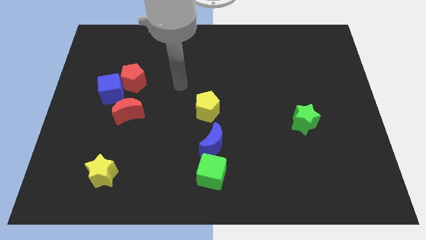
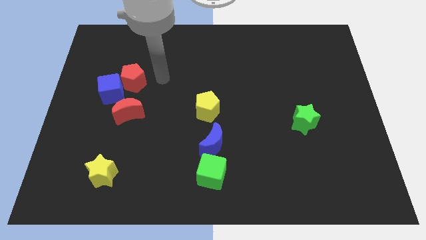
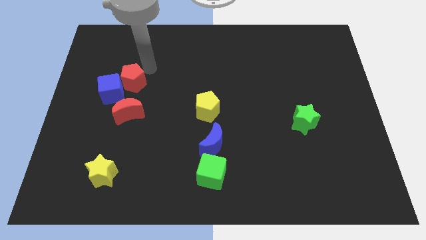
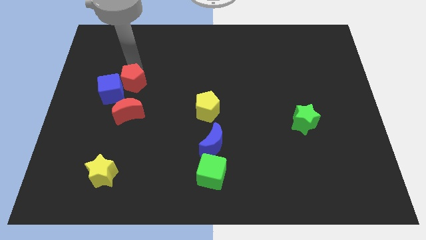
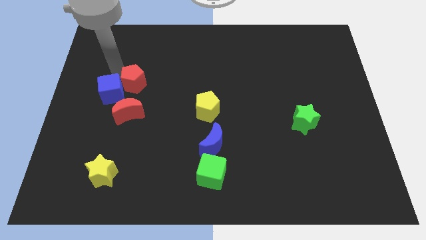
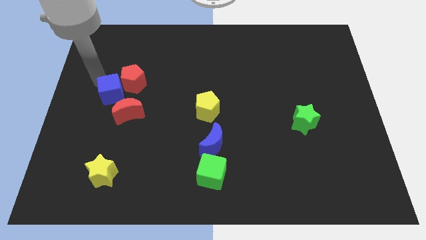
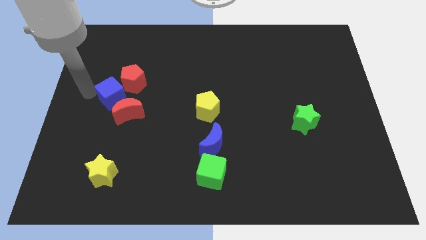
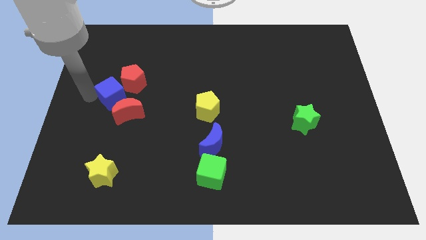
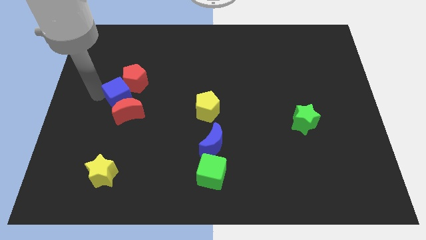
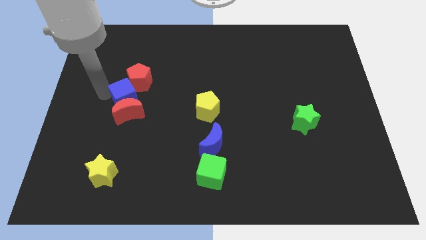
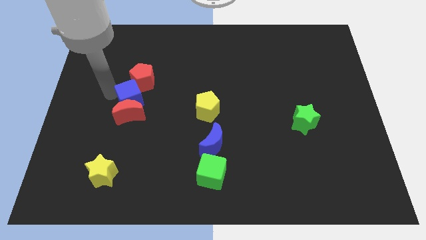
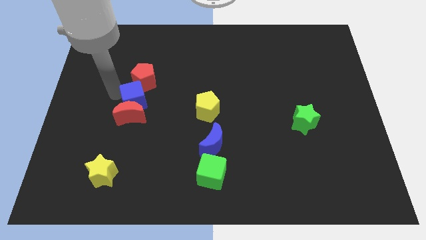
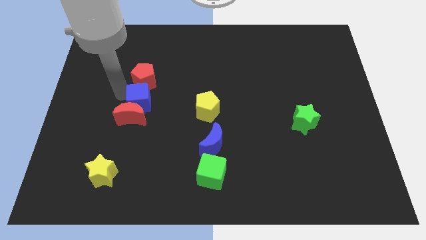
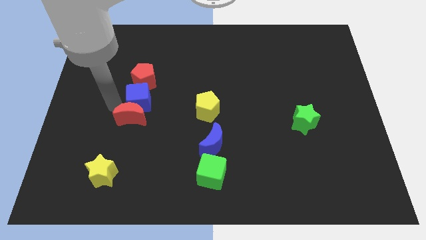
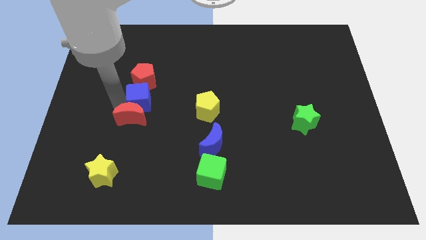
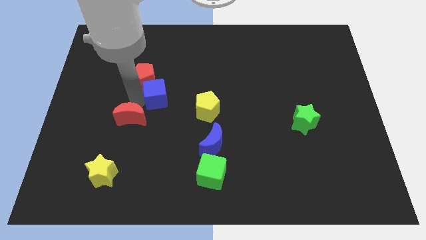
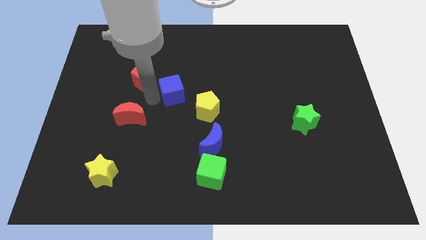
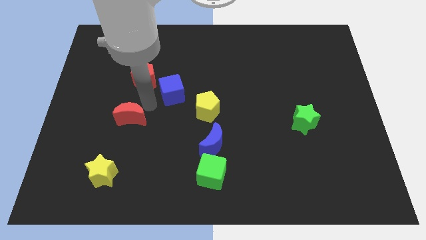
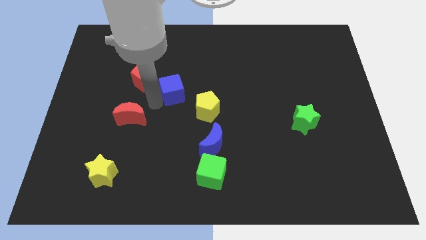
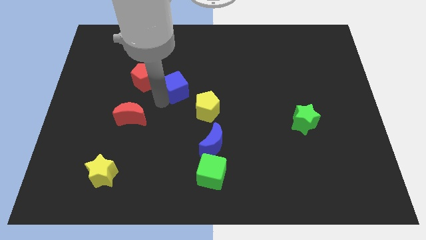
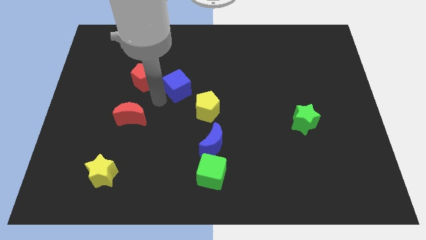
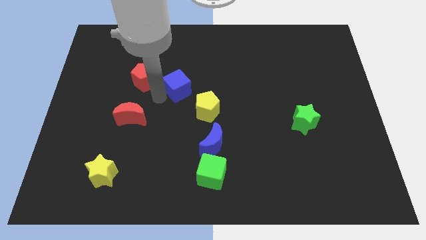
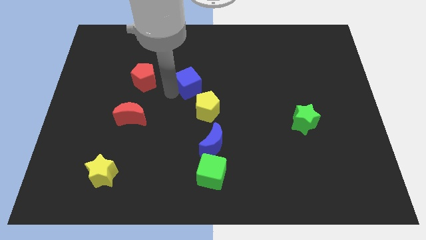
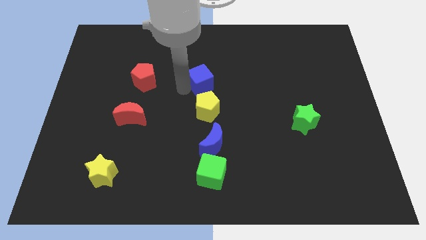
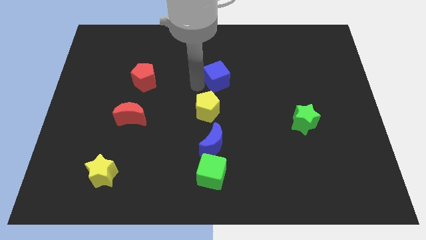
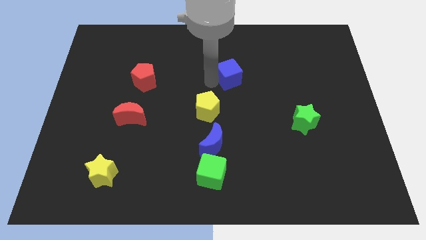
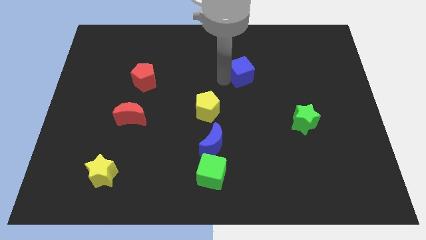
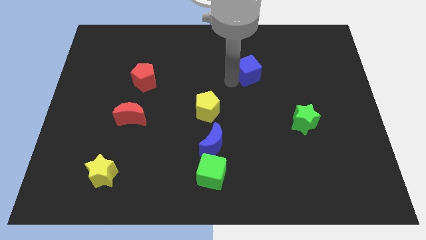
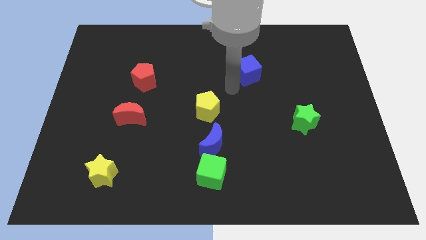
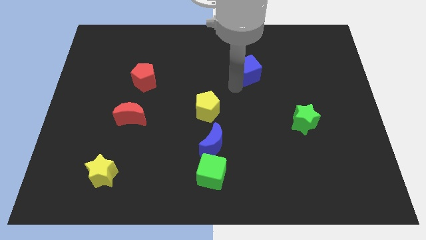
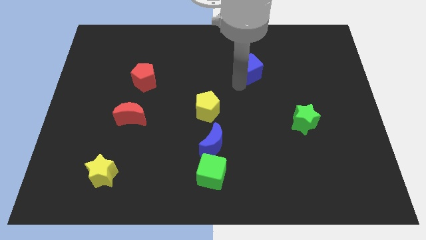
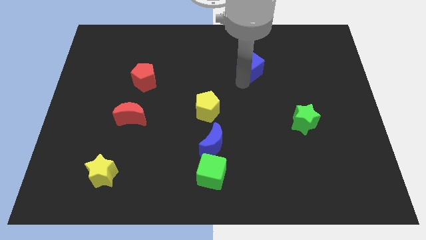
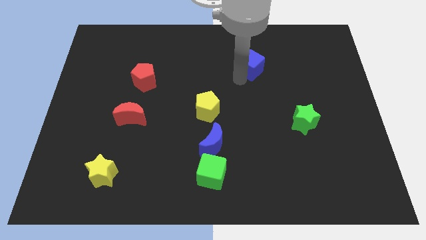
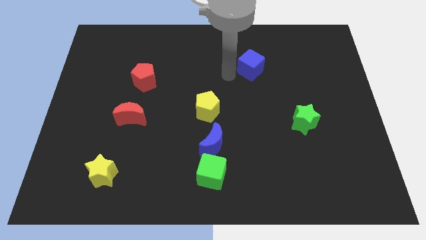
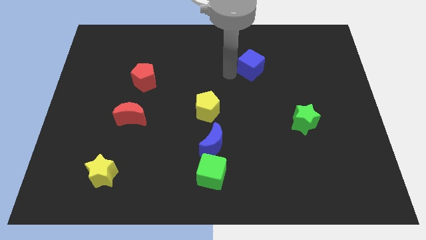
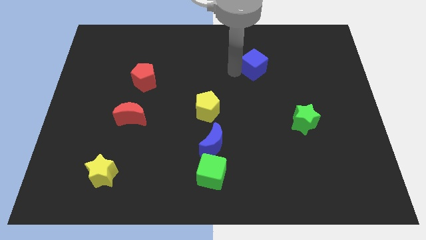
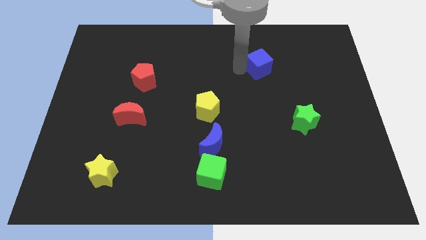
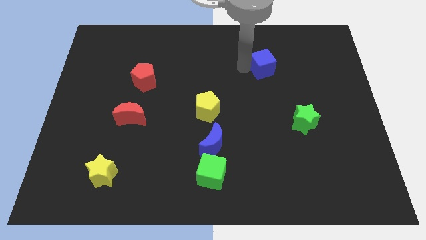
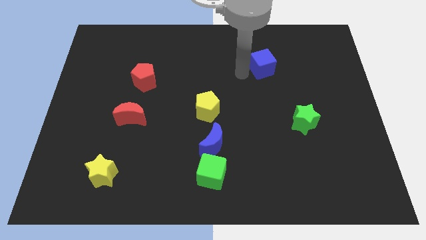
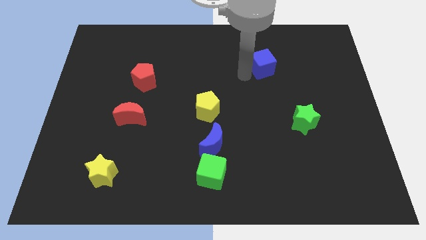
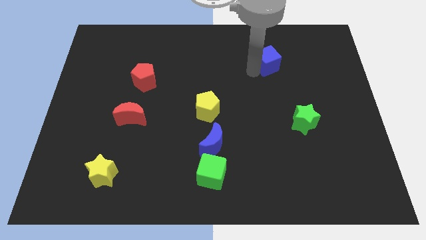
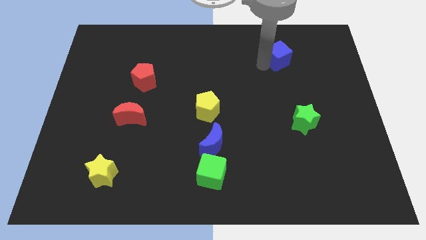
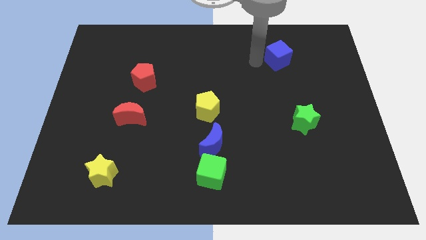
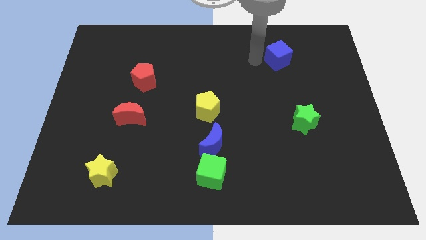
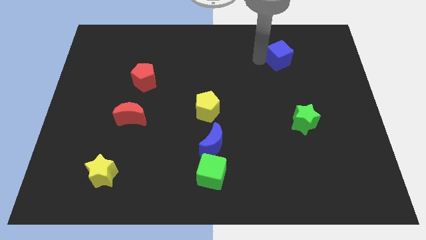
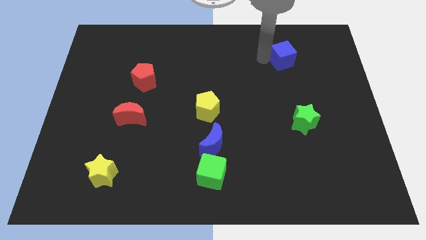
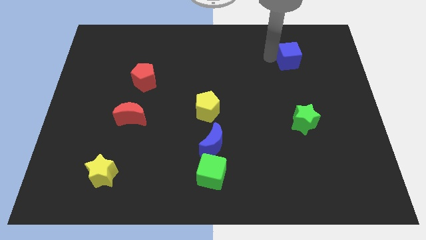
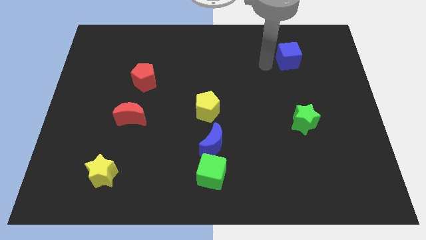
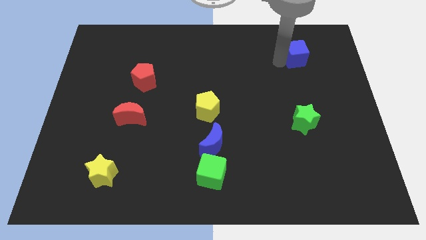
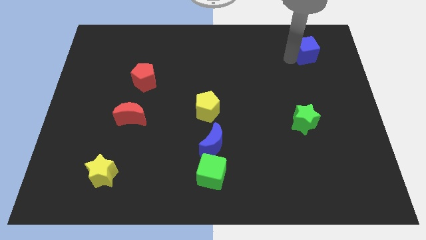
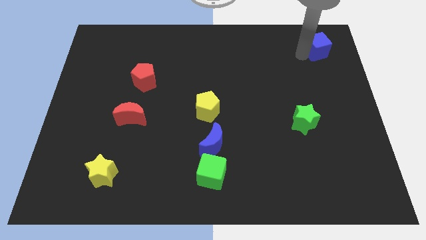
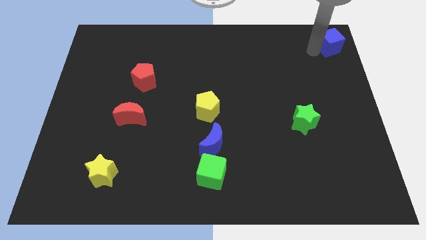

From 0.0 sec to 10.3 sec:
push the blue cube to the top right corner

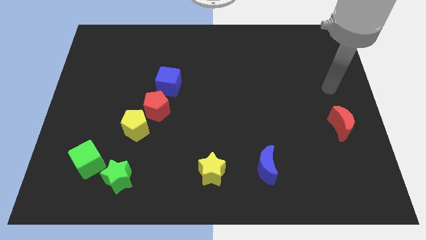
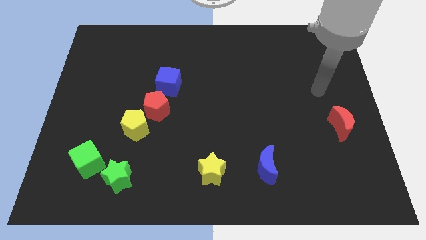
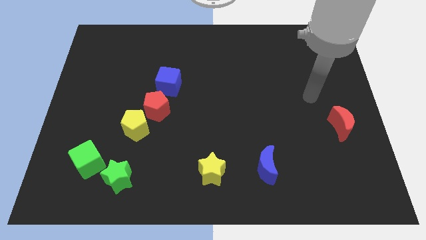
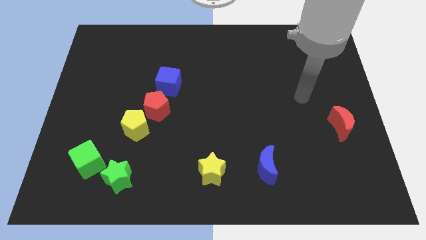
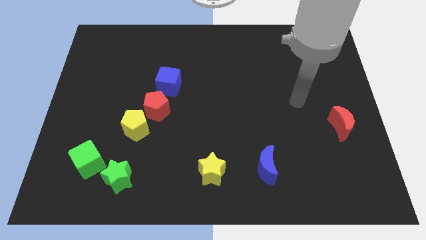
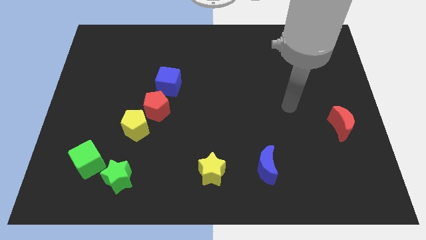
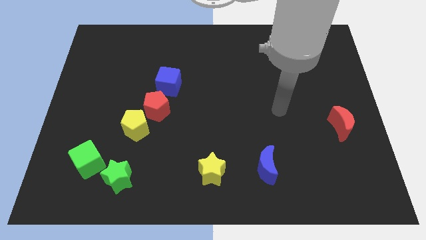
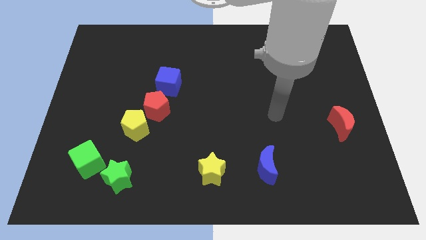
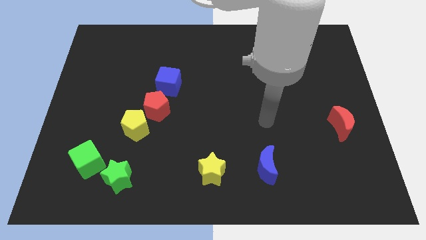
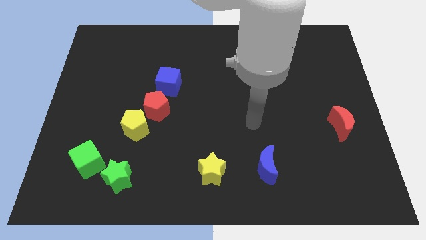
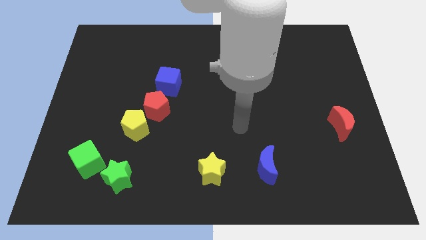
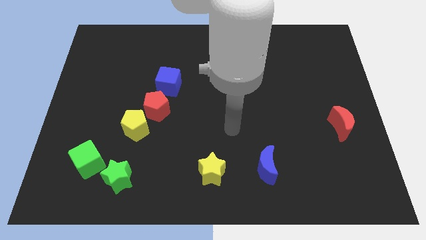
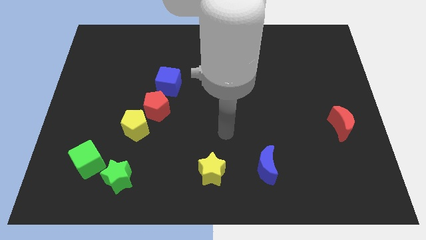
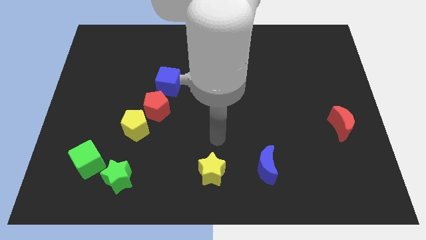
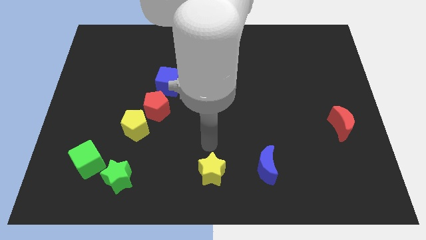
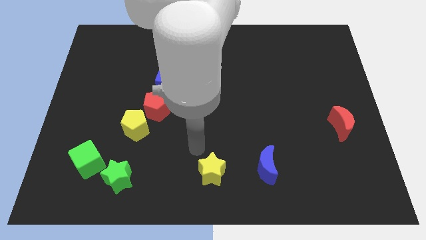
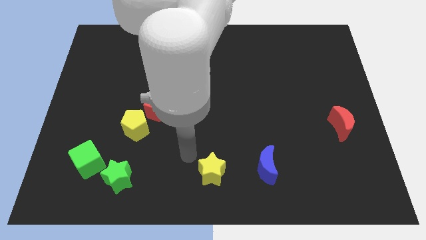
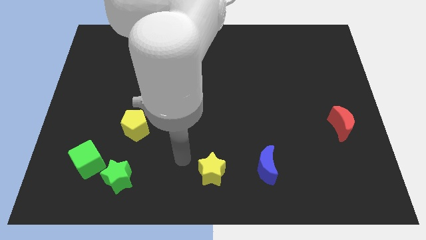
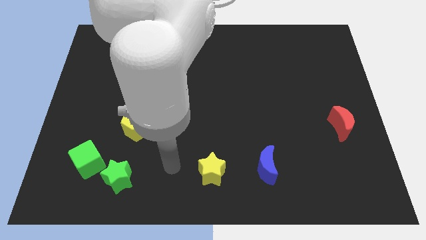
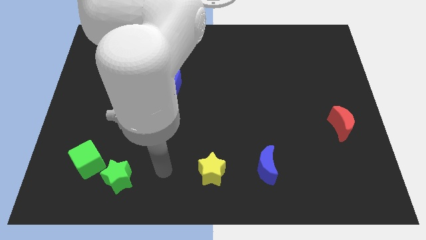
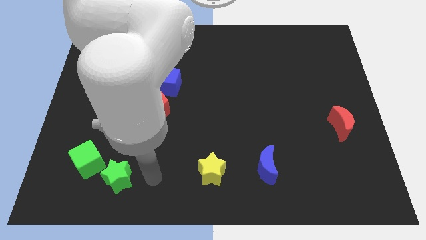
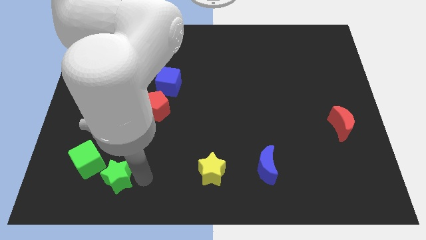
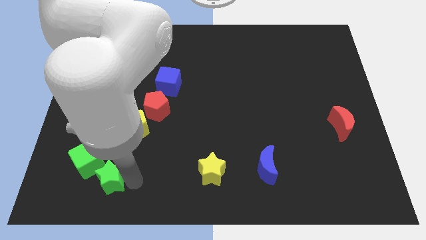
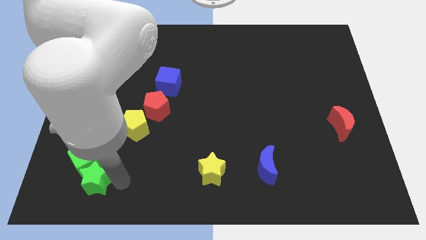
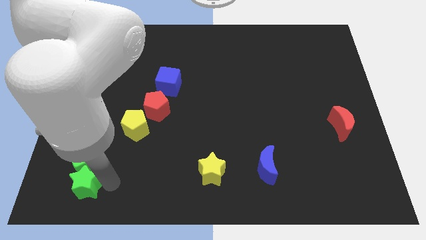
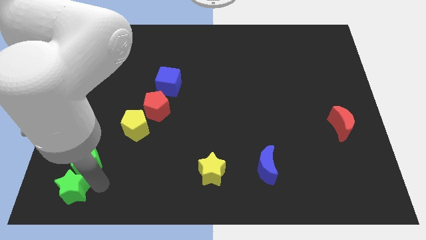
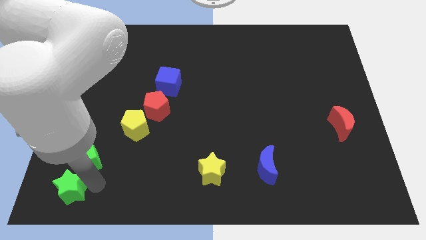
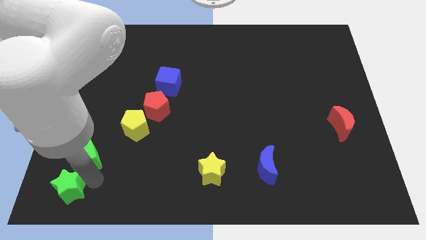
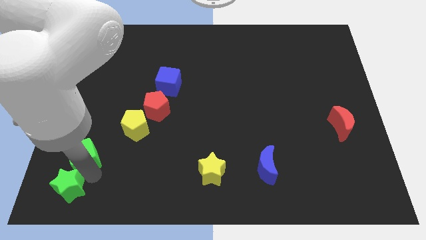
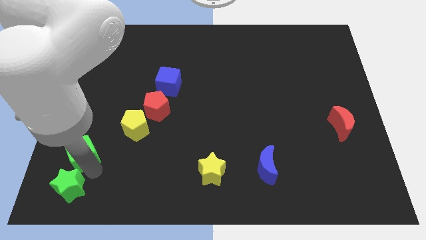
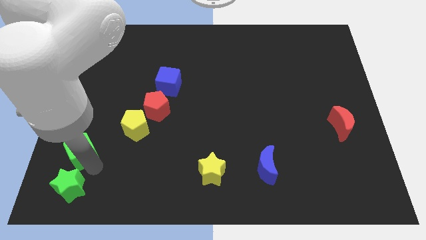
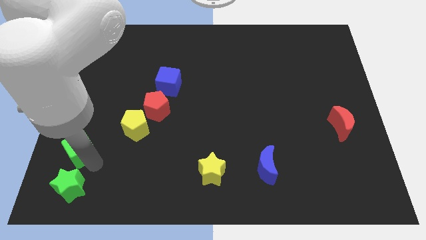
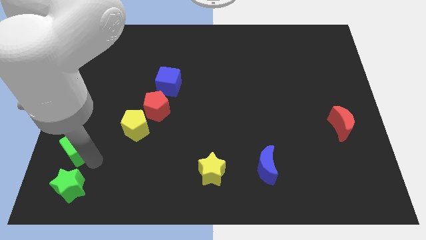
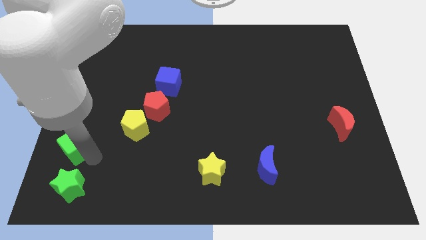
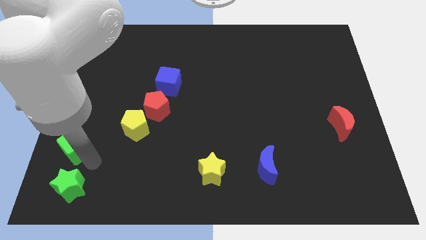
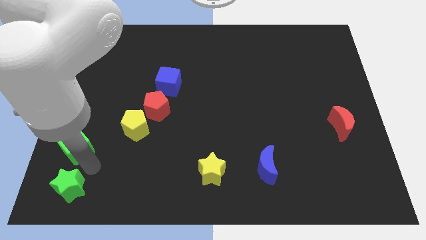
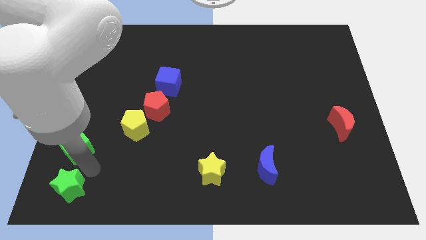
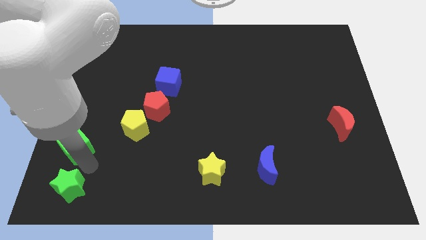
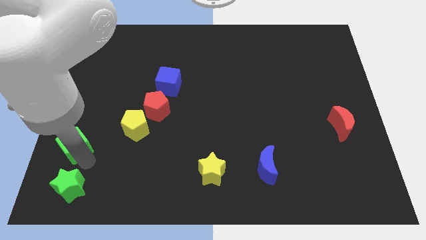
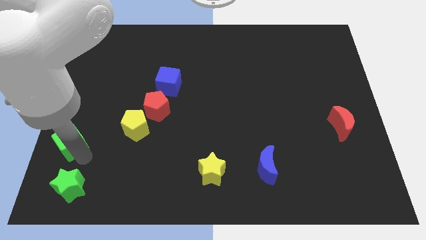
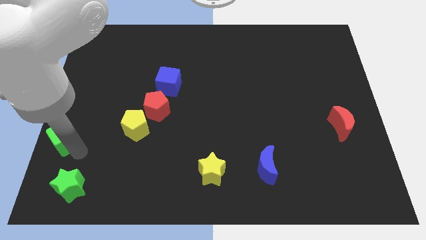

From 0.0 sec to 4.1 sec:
slide the green cube to the left side
